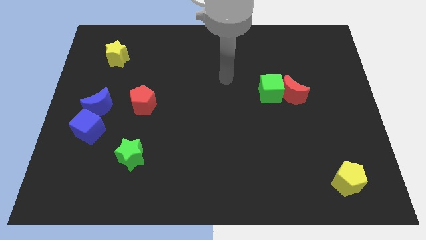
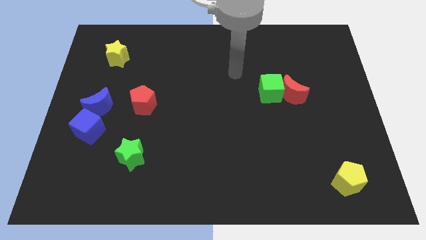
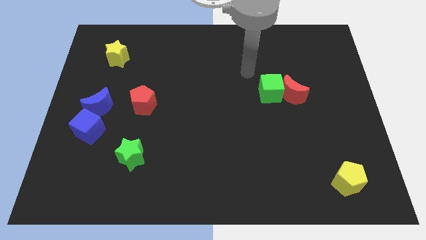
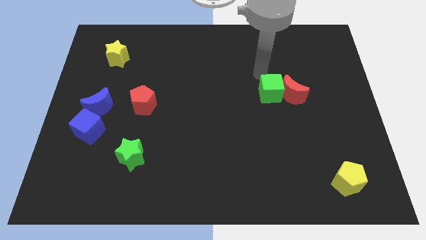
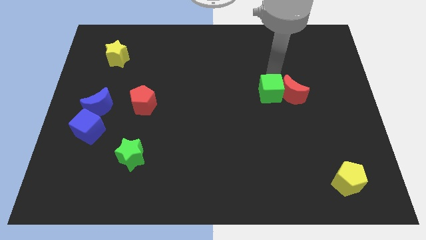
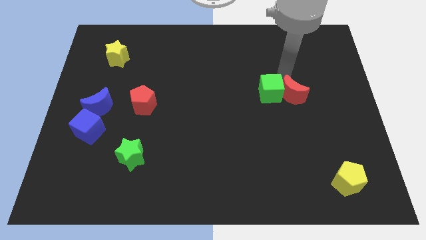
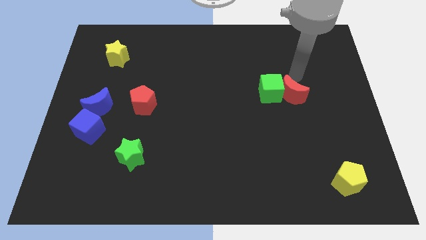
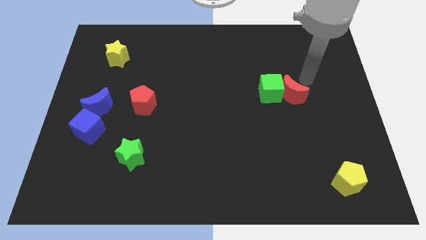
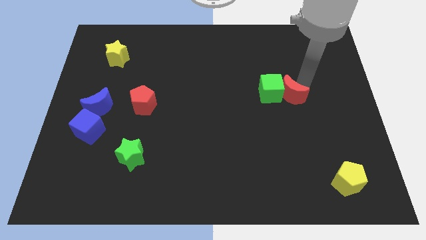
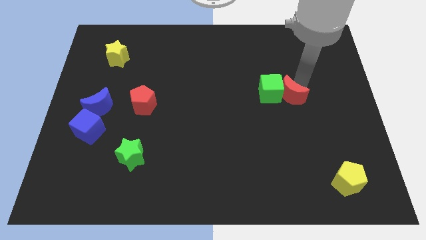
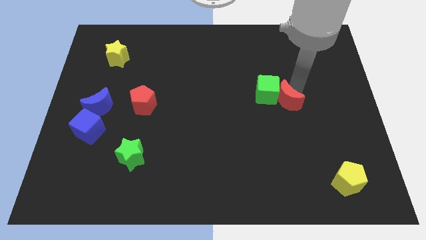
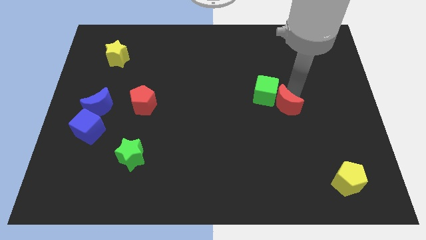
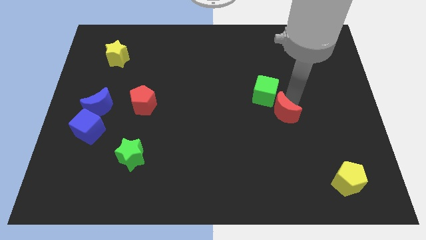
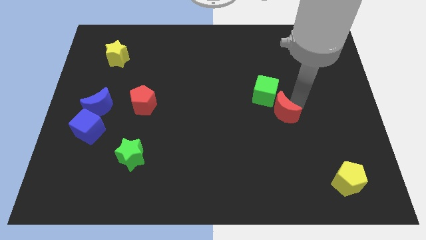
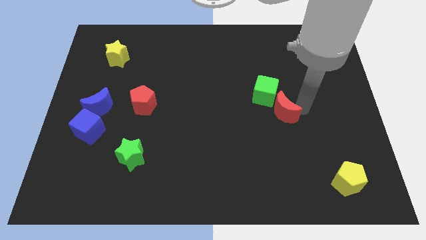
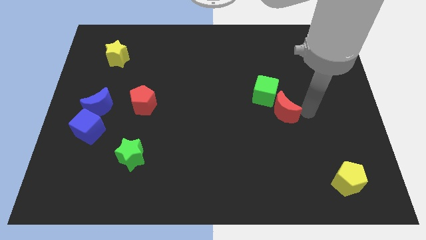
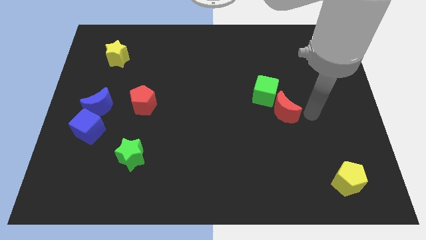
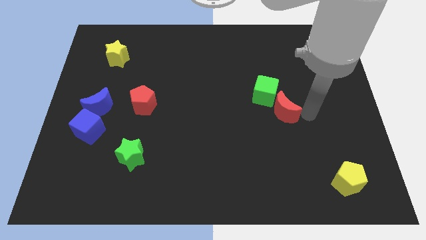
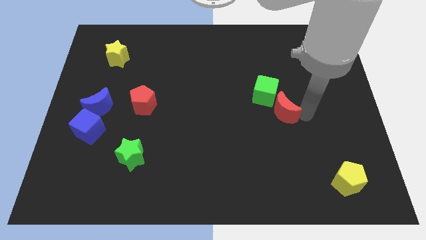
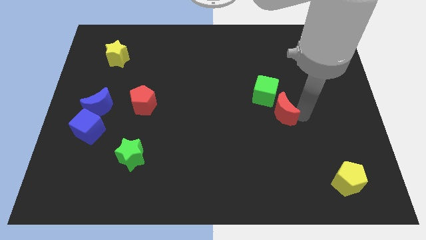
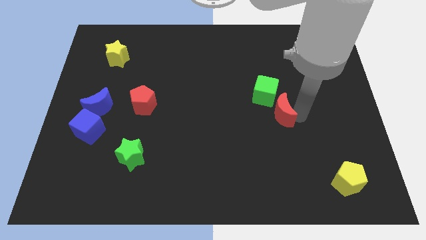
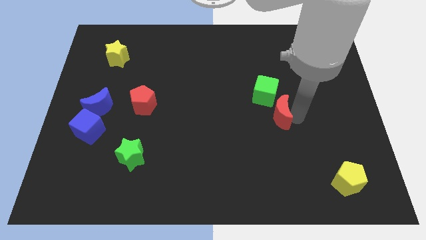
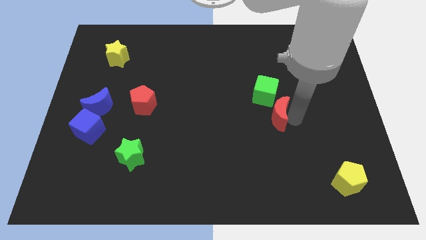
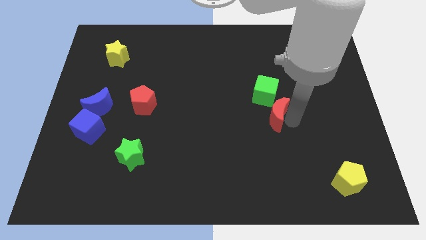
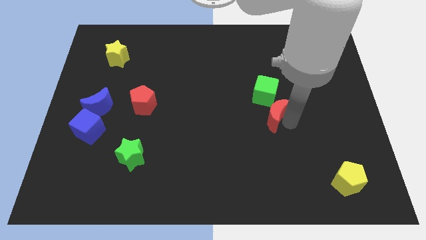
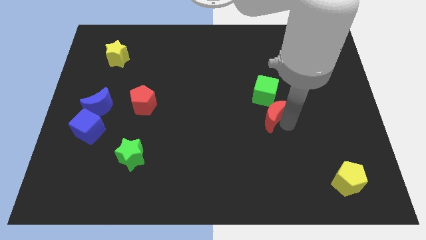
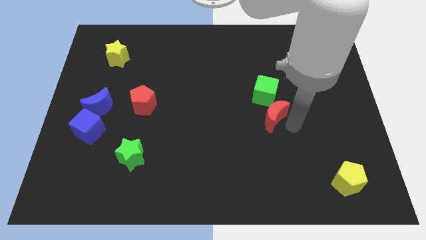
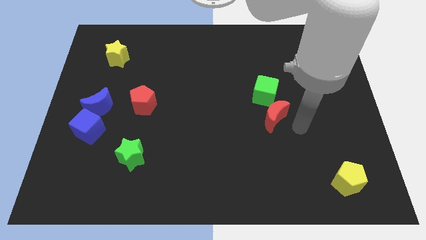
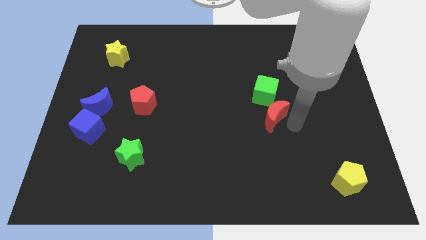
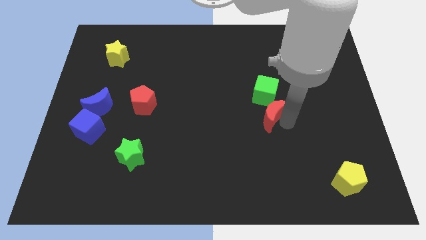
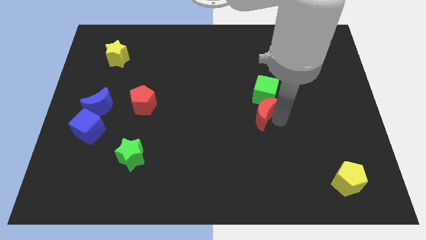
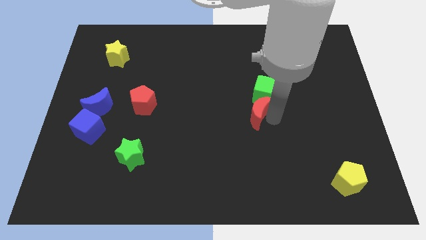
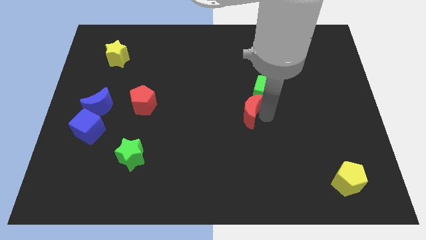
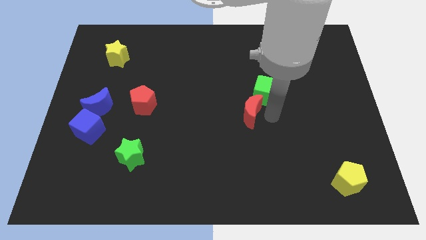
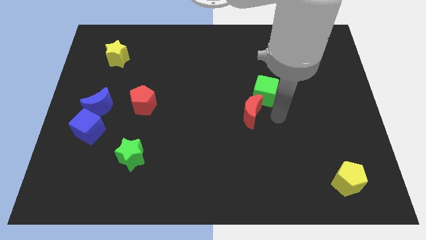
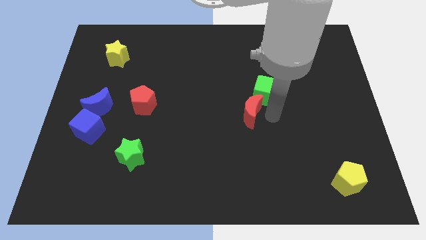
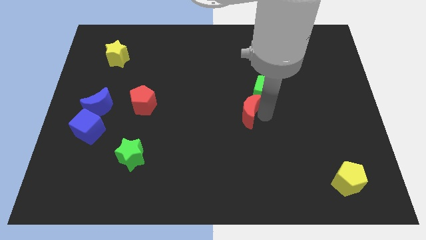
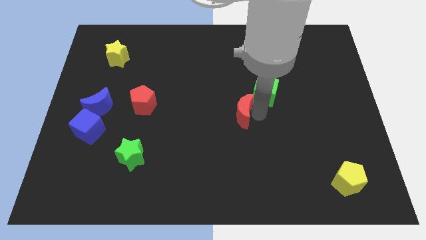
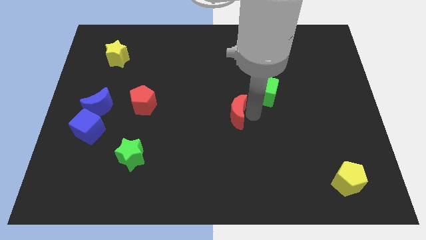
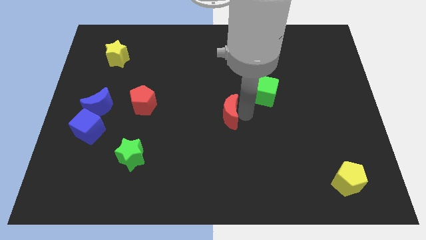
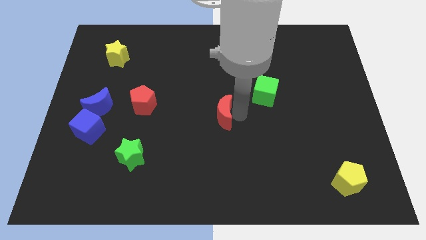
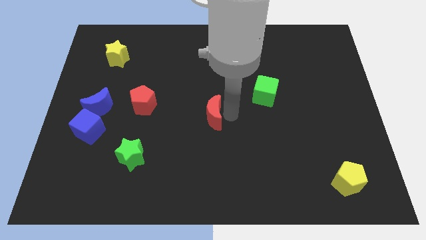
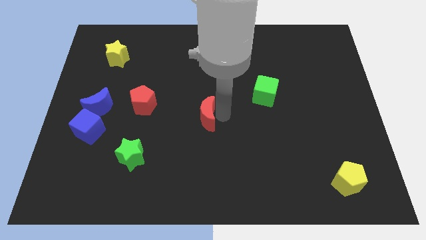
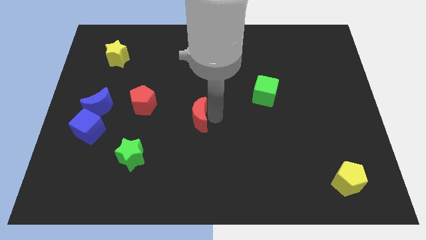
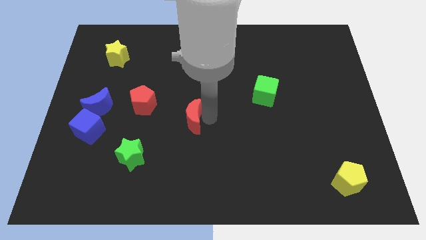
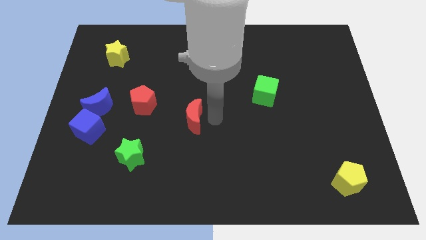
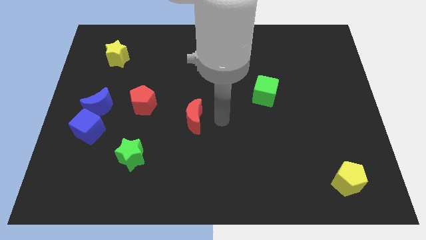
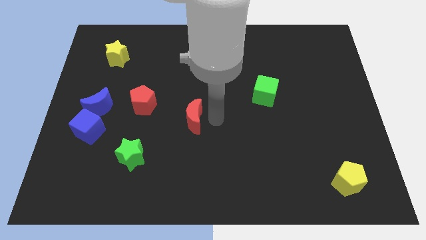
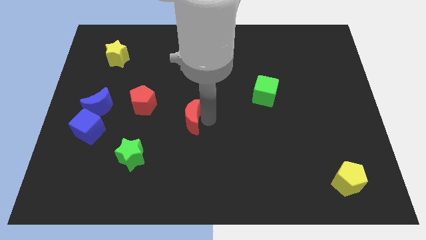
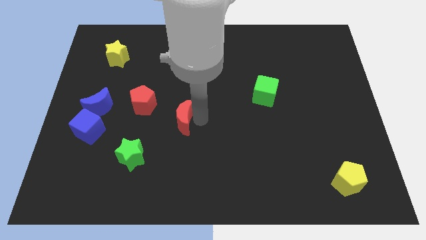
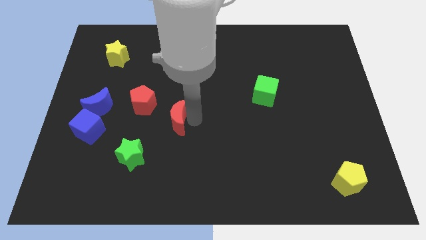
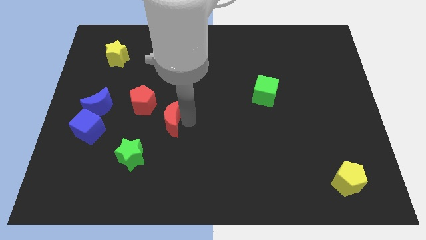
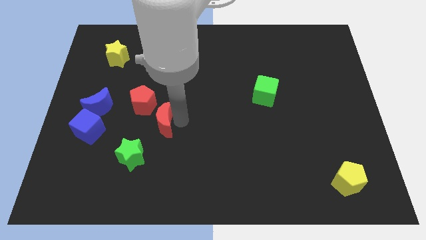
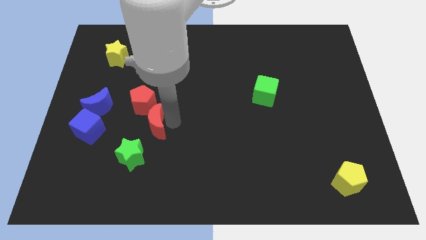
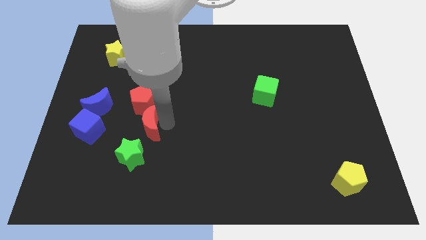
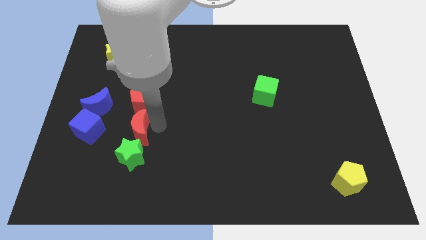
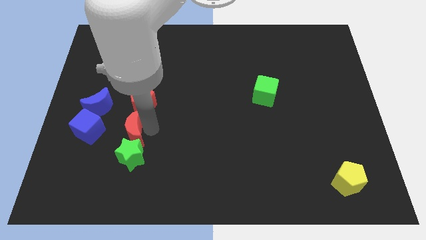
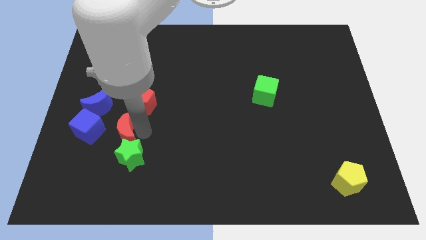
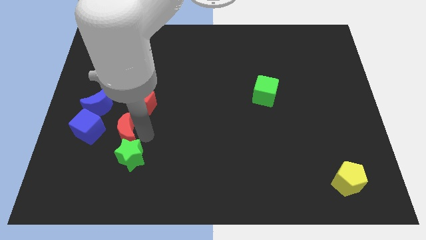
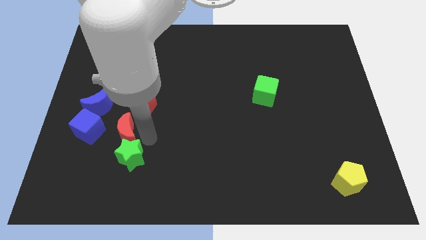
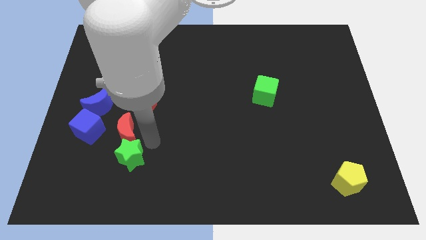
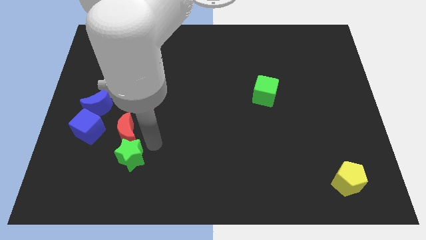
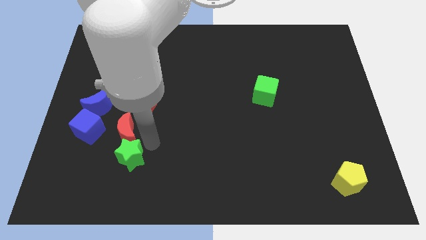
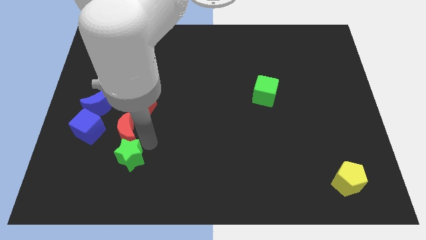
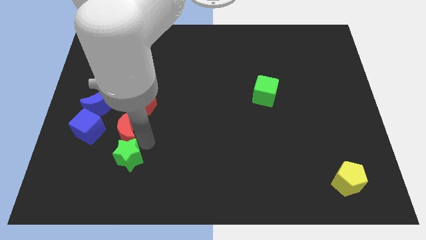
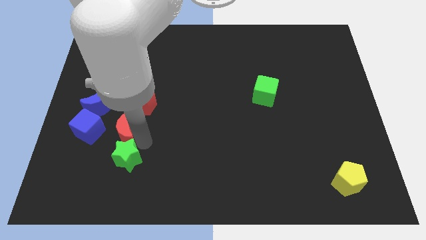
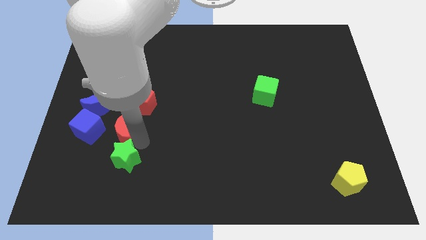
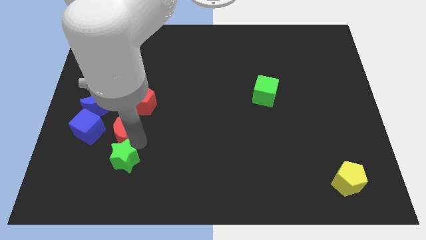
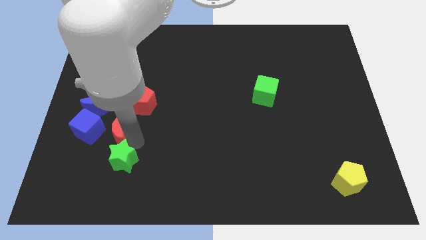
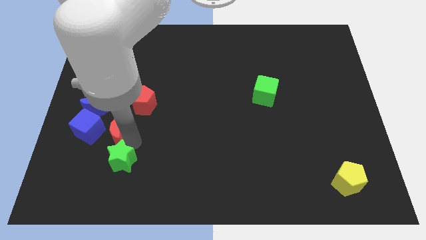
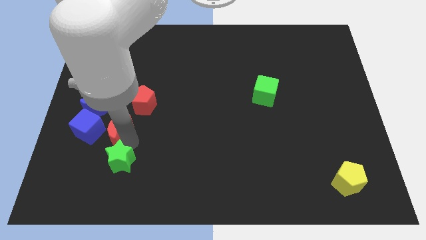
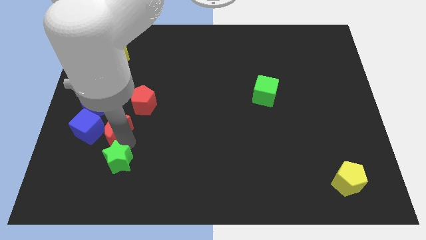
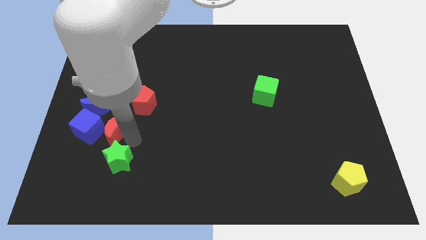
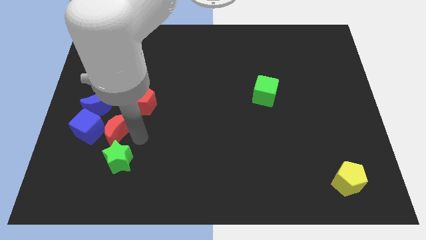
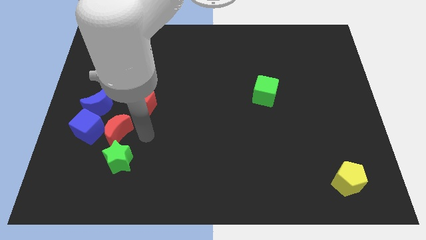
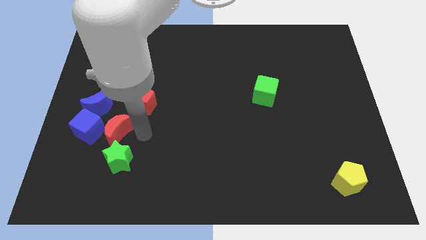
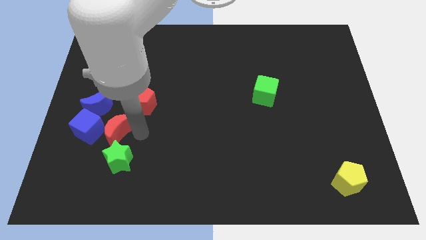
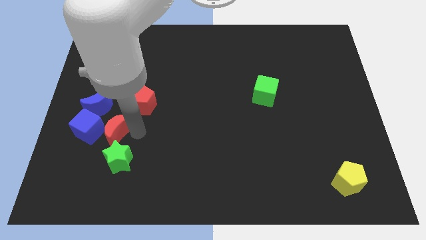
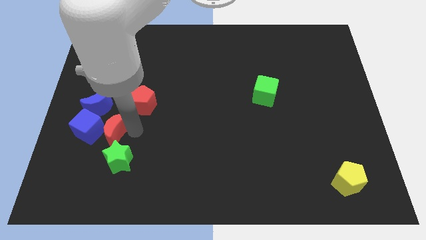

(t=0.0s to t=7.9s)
slide the red moon towards the blue cube
